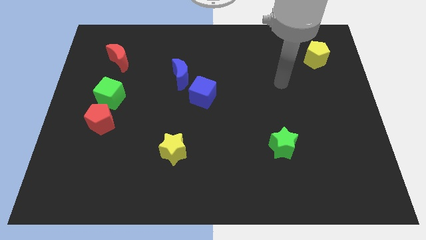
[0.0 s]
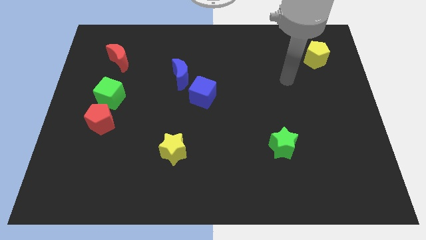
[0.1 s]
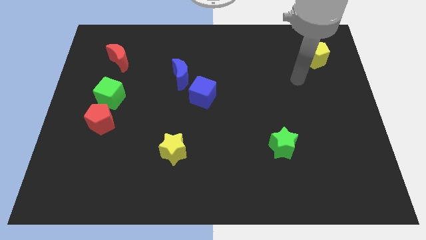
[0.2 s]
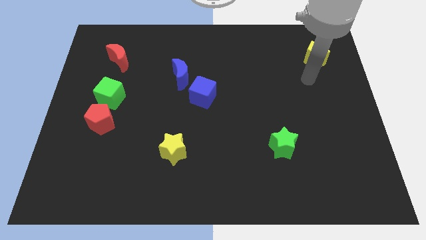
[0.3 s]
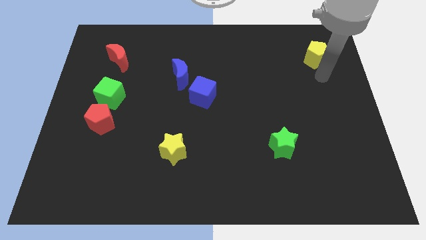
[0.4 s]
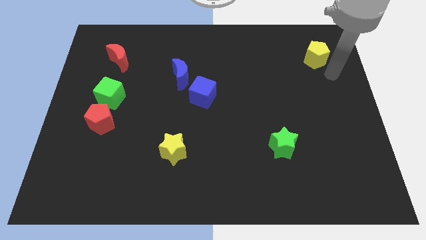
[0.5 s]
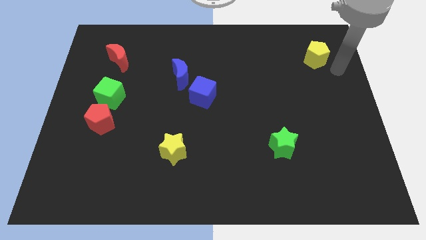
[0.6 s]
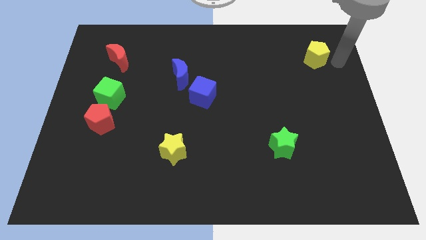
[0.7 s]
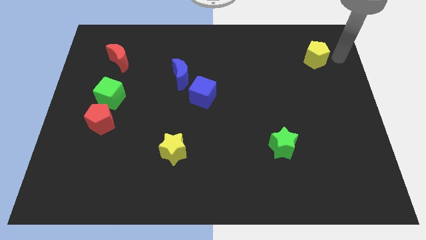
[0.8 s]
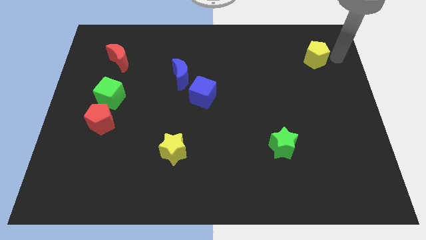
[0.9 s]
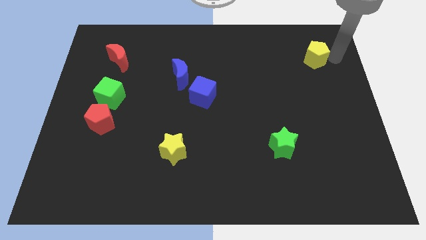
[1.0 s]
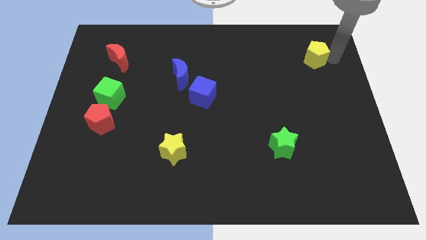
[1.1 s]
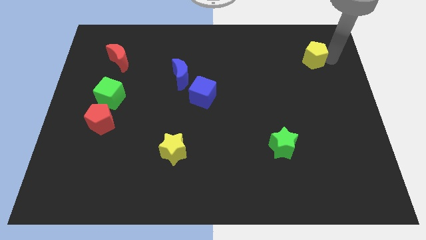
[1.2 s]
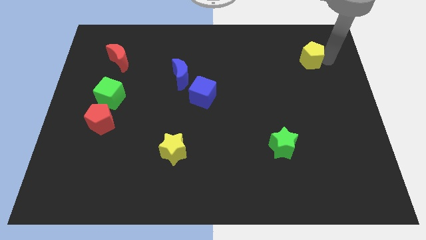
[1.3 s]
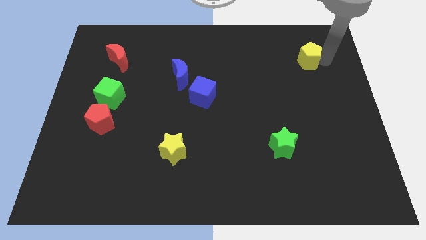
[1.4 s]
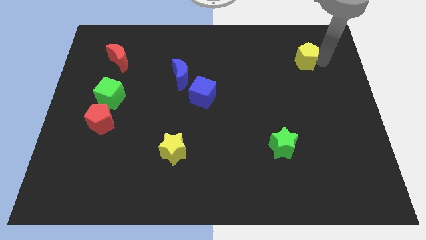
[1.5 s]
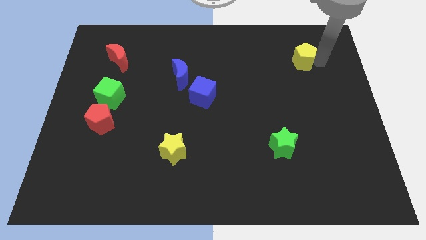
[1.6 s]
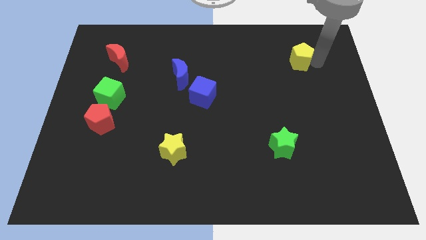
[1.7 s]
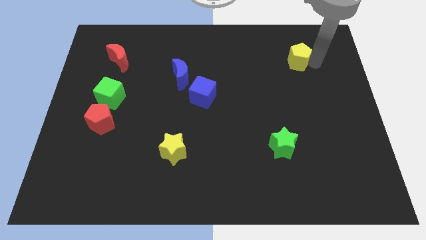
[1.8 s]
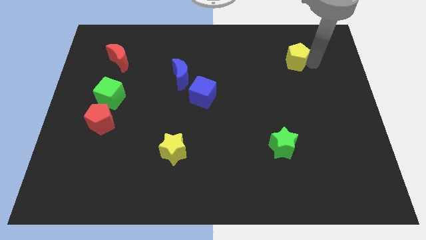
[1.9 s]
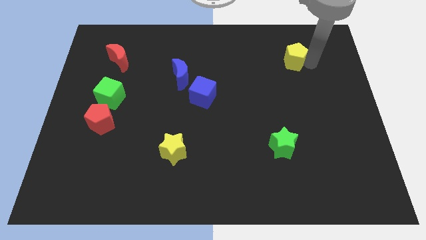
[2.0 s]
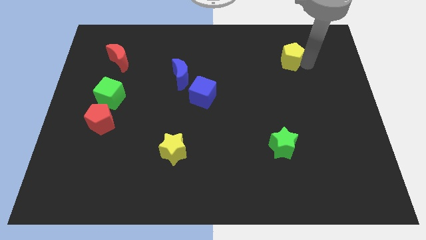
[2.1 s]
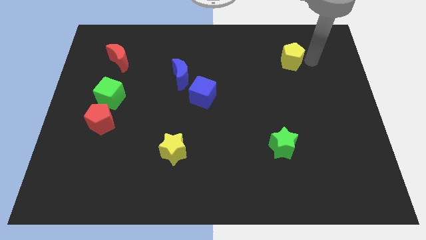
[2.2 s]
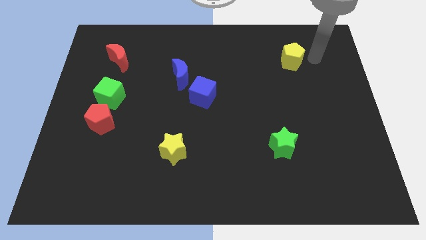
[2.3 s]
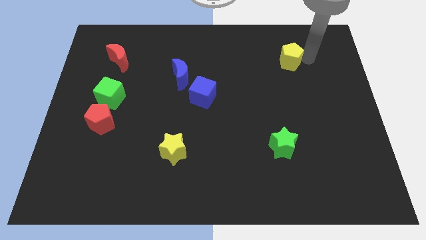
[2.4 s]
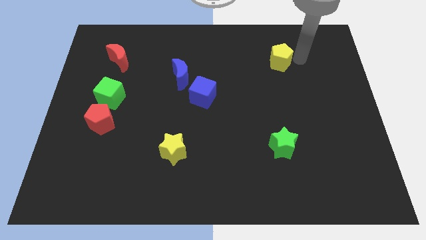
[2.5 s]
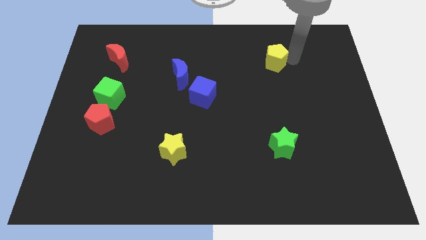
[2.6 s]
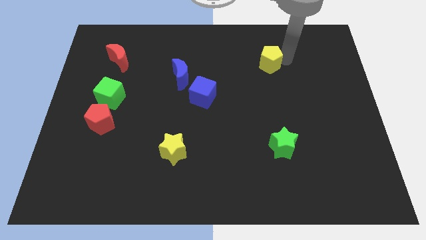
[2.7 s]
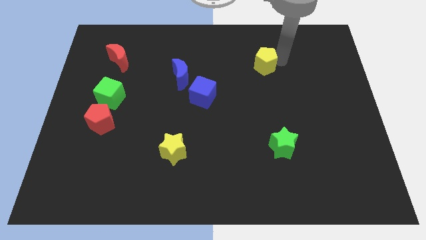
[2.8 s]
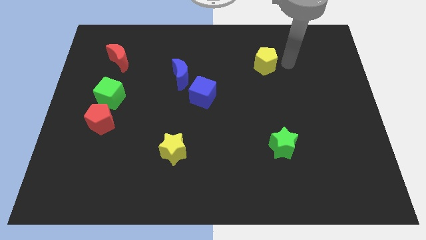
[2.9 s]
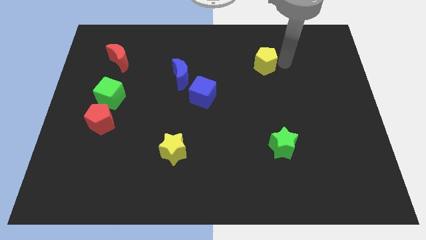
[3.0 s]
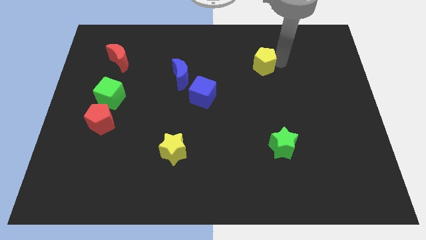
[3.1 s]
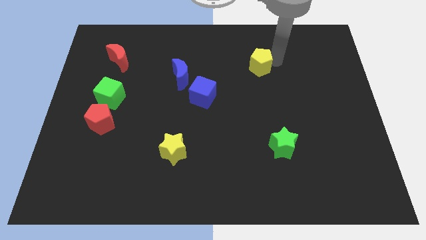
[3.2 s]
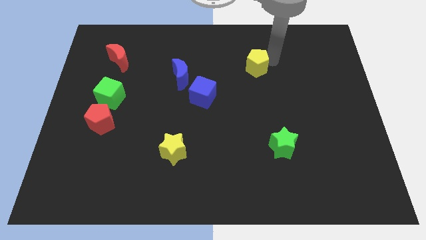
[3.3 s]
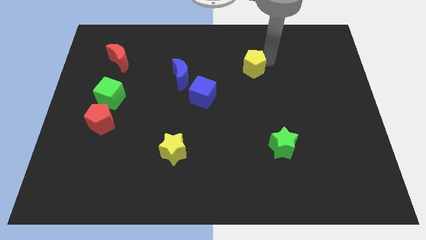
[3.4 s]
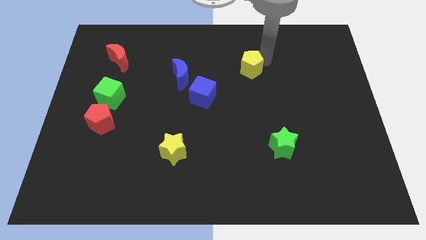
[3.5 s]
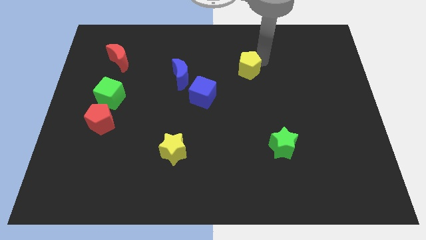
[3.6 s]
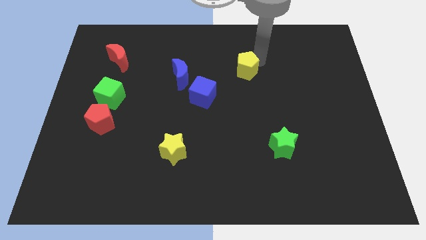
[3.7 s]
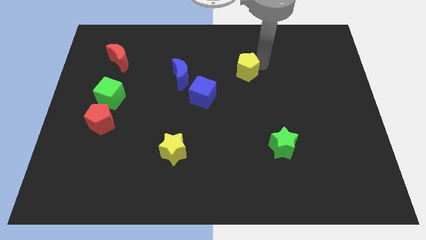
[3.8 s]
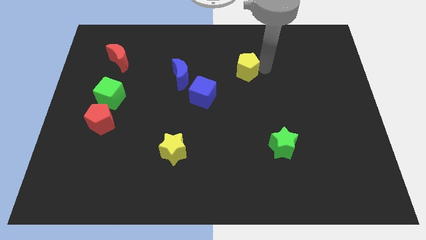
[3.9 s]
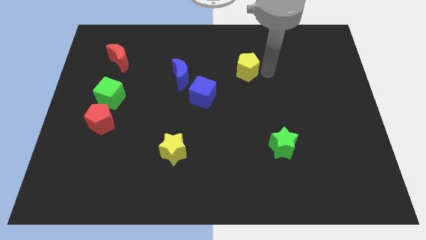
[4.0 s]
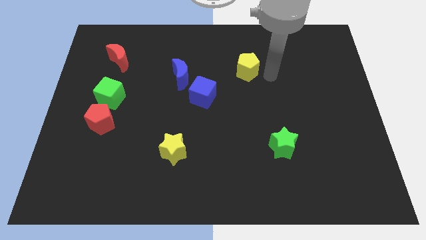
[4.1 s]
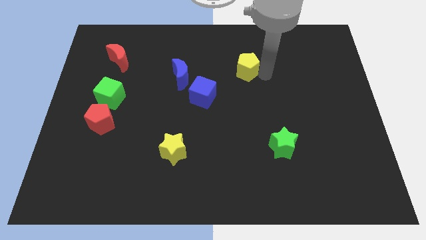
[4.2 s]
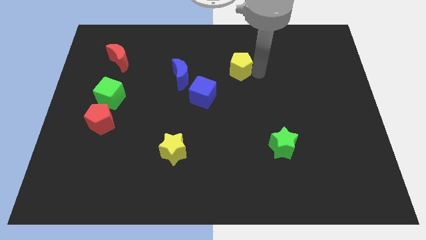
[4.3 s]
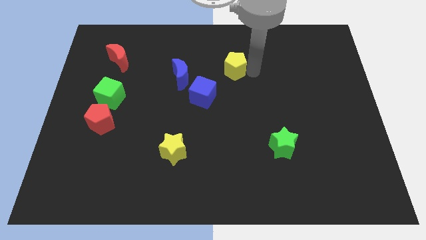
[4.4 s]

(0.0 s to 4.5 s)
move the yellow pentagon to the left

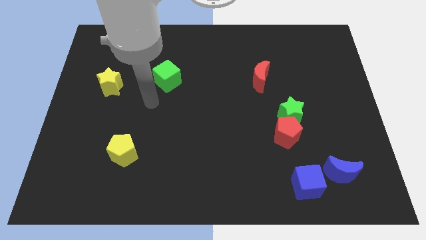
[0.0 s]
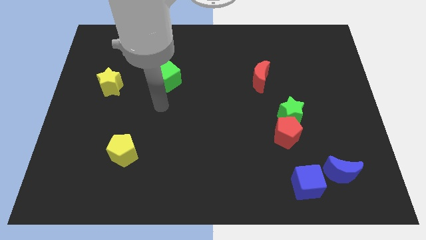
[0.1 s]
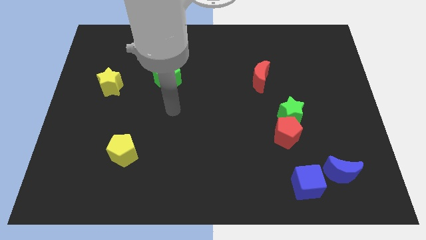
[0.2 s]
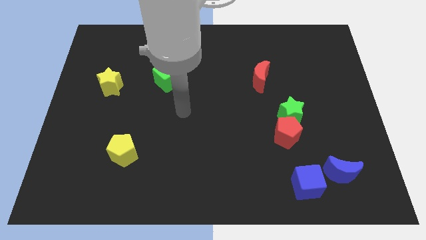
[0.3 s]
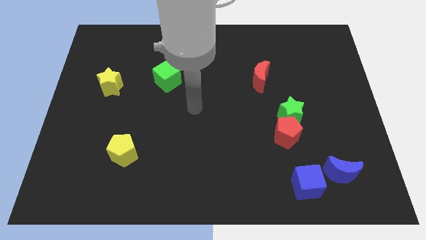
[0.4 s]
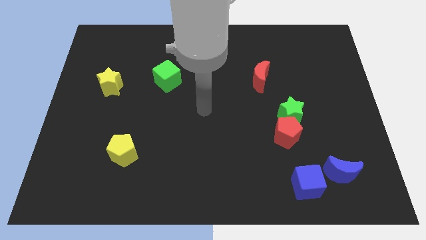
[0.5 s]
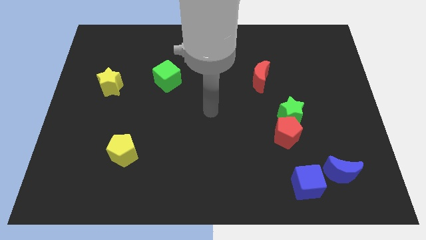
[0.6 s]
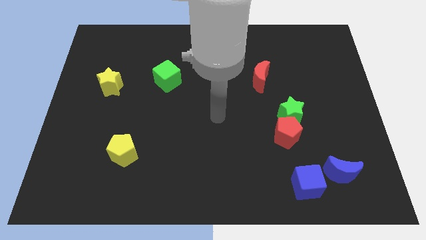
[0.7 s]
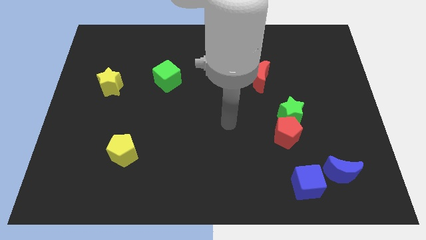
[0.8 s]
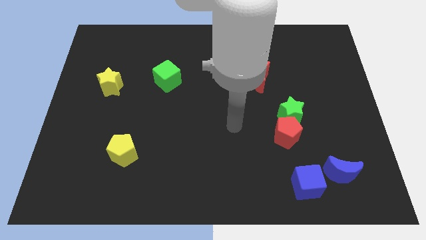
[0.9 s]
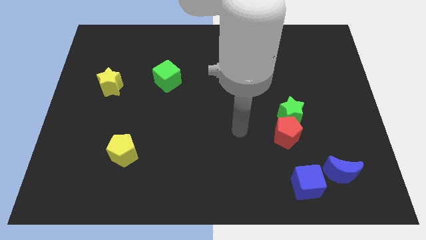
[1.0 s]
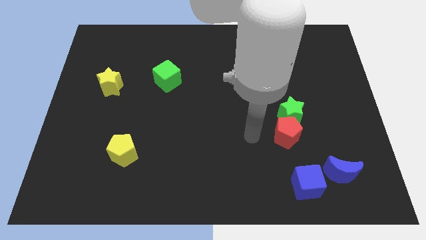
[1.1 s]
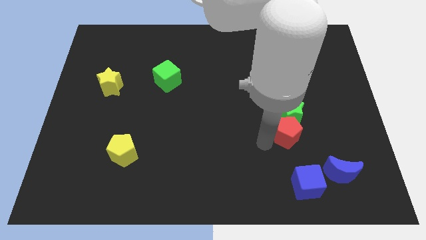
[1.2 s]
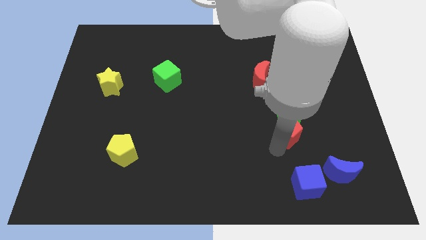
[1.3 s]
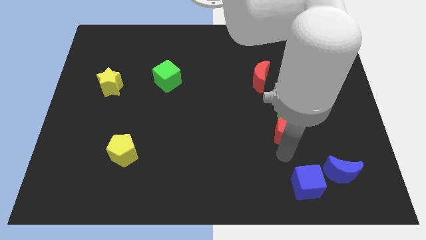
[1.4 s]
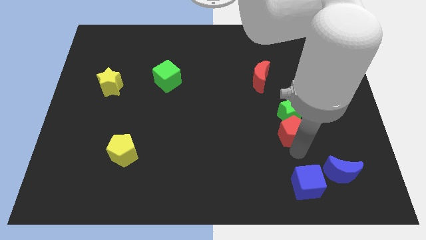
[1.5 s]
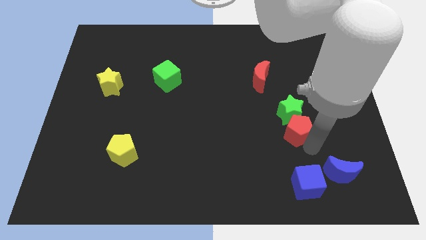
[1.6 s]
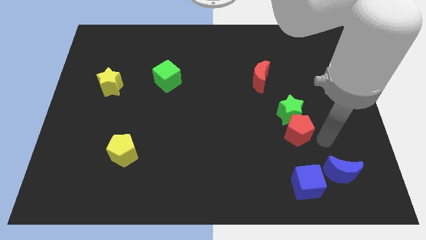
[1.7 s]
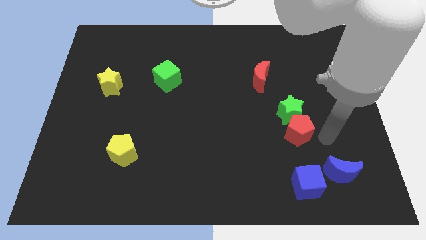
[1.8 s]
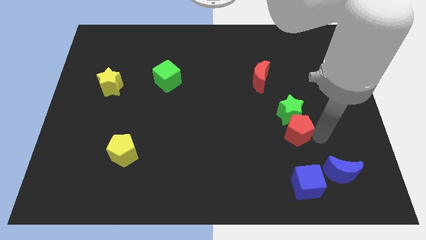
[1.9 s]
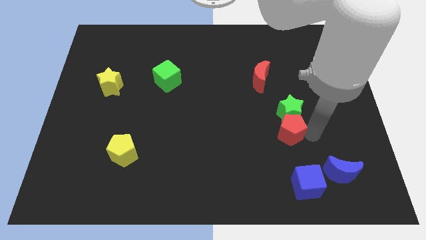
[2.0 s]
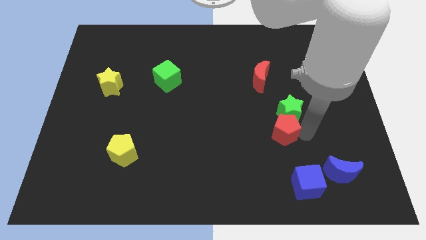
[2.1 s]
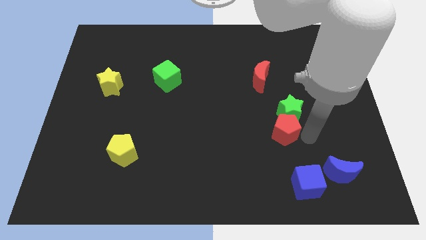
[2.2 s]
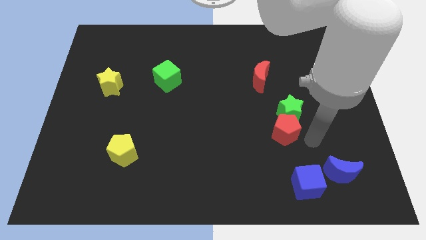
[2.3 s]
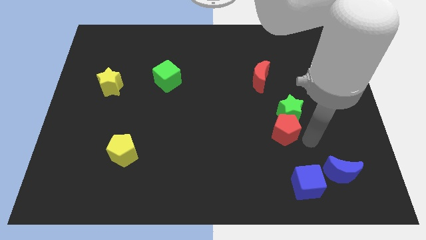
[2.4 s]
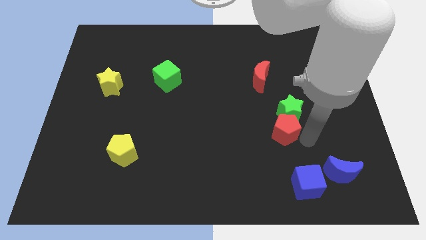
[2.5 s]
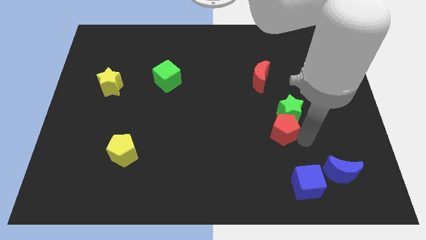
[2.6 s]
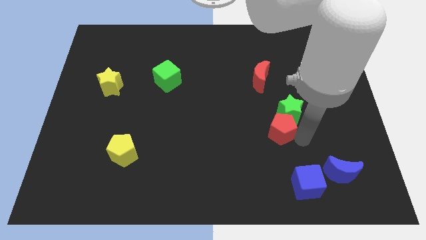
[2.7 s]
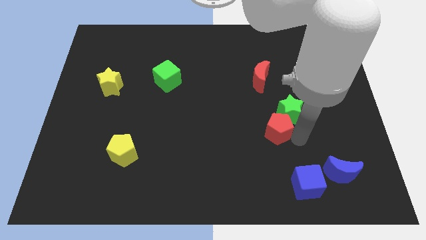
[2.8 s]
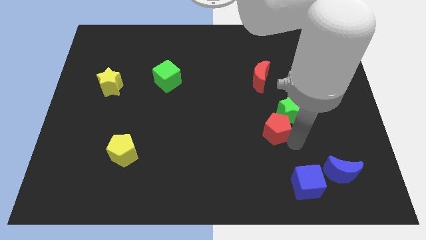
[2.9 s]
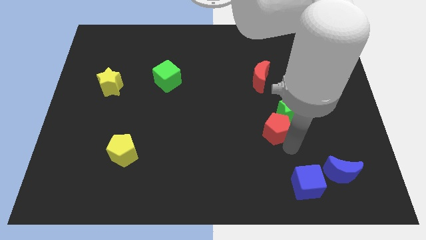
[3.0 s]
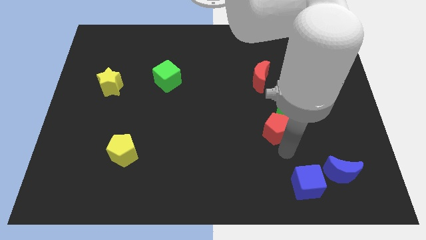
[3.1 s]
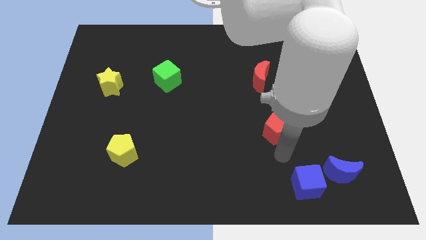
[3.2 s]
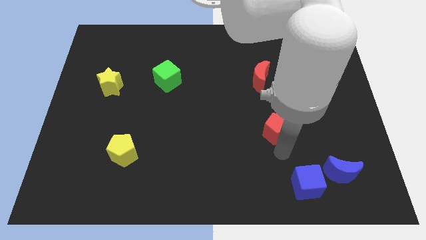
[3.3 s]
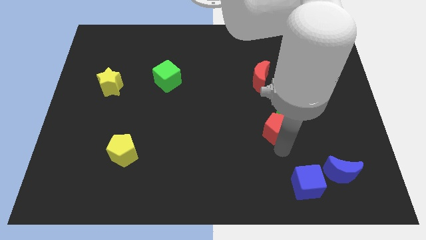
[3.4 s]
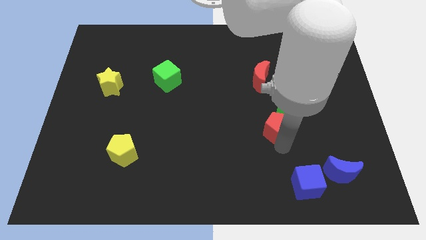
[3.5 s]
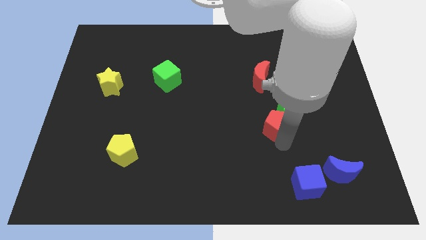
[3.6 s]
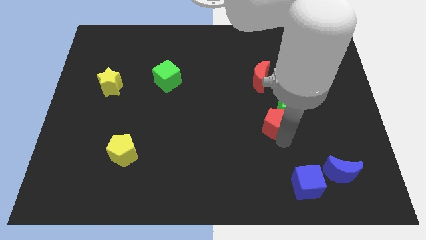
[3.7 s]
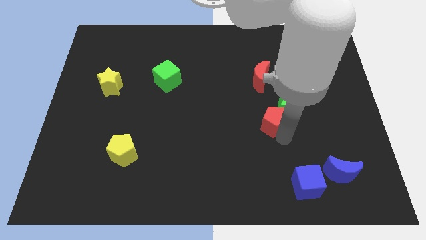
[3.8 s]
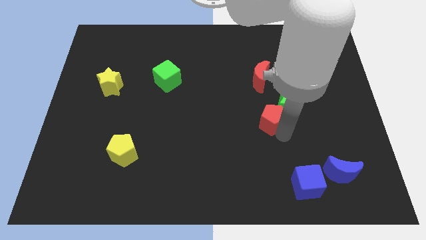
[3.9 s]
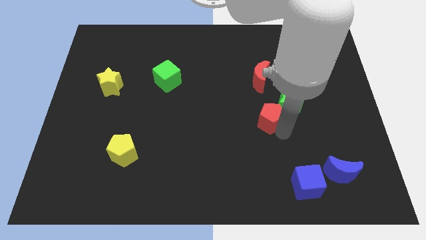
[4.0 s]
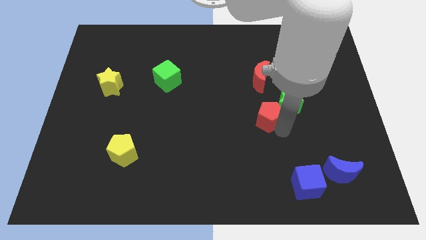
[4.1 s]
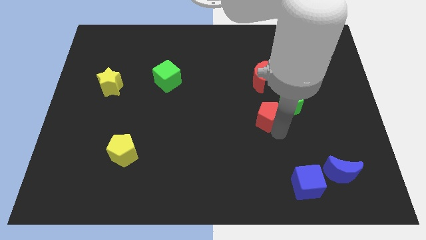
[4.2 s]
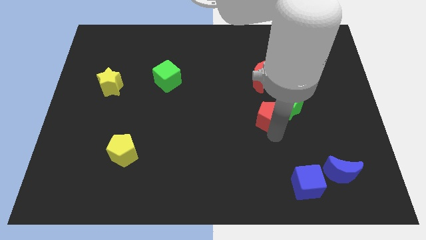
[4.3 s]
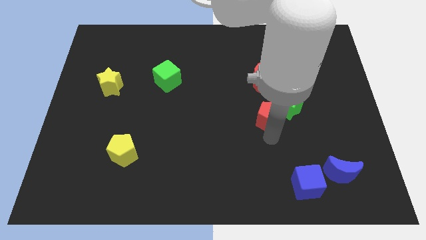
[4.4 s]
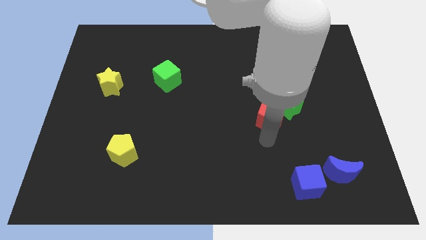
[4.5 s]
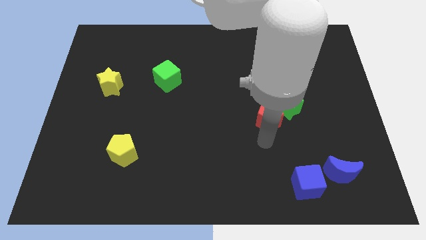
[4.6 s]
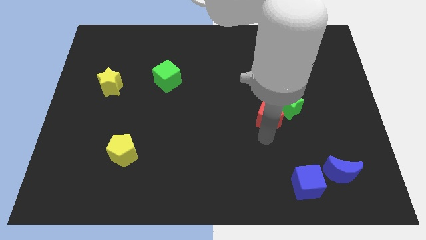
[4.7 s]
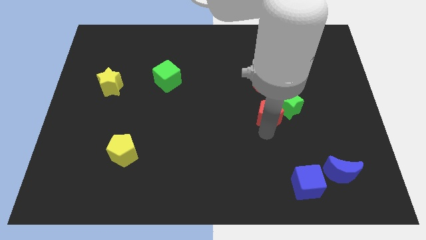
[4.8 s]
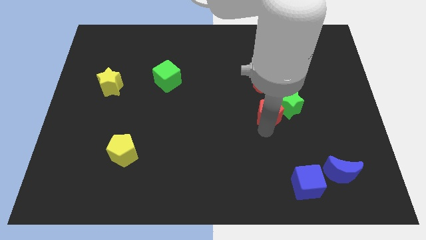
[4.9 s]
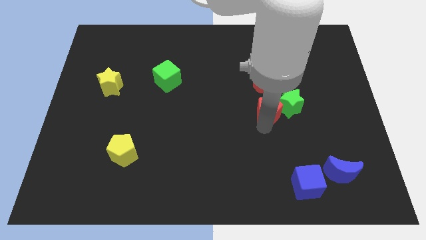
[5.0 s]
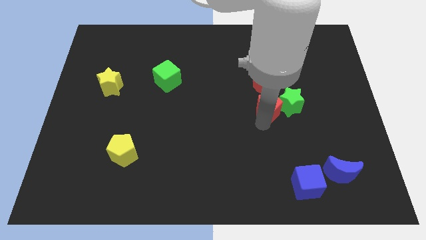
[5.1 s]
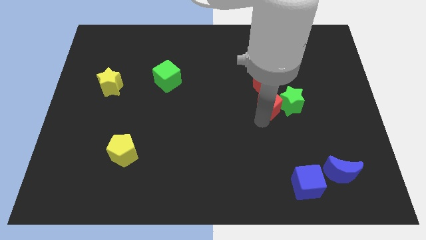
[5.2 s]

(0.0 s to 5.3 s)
slide the red pentagon a little bit up
